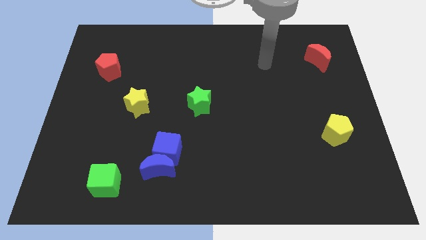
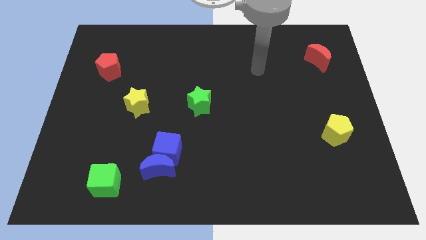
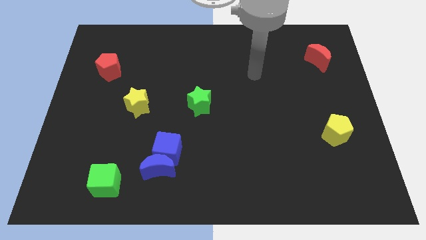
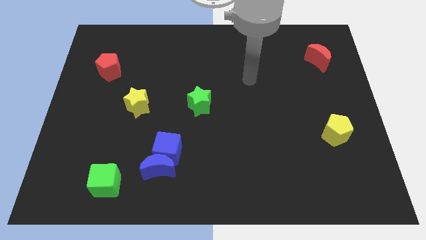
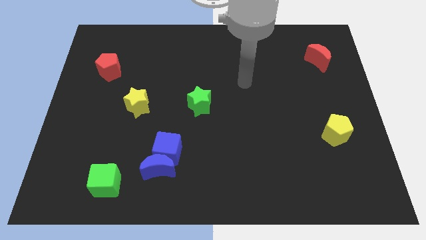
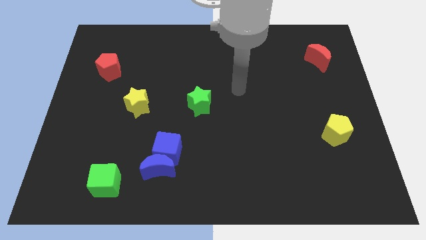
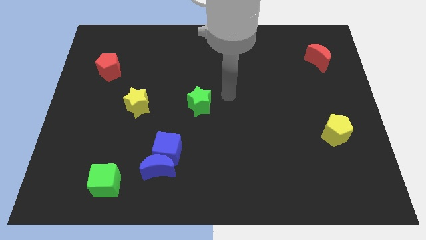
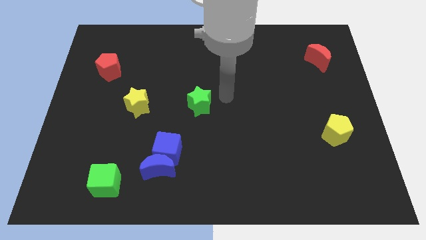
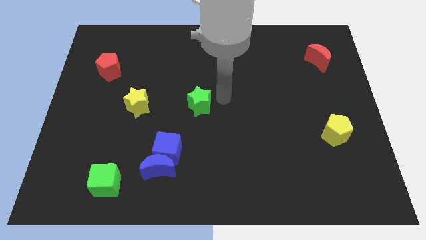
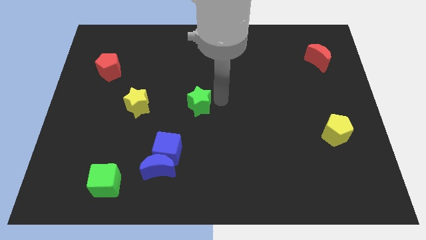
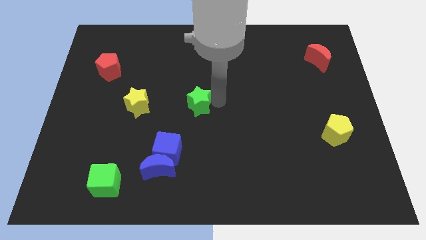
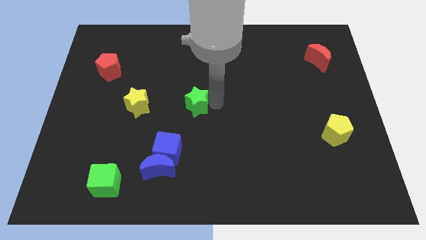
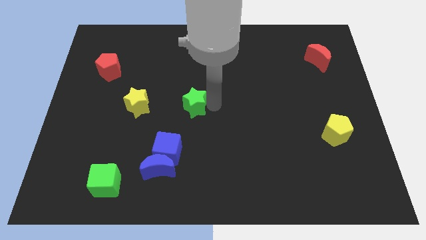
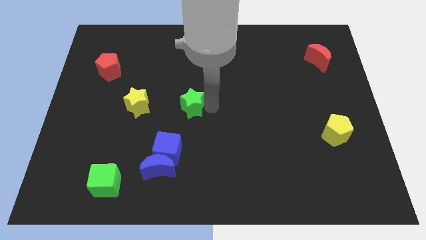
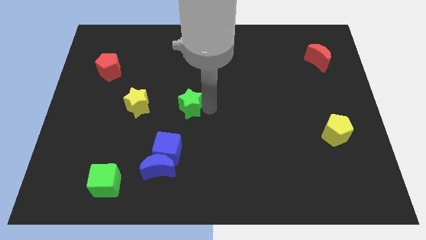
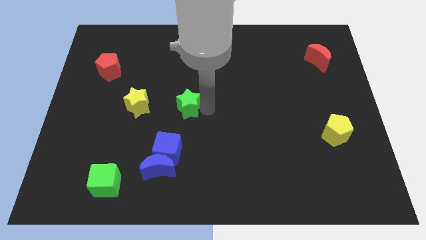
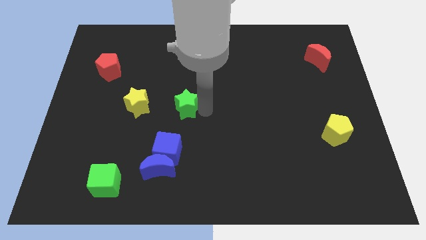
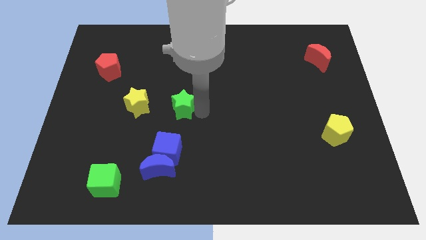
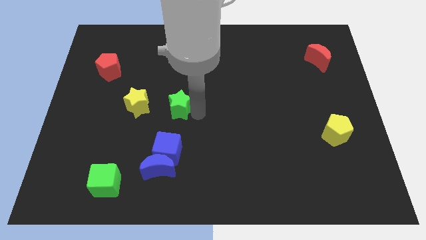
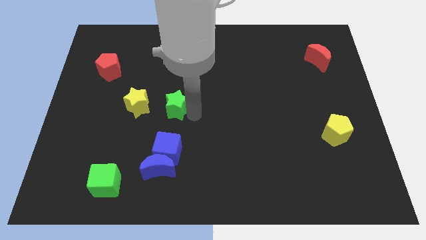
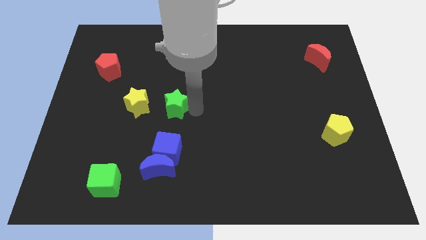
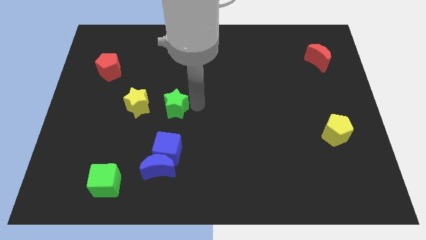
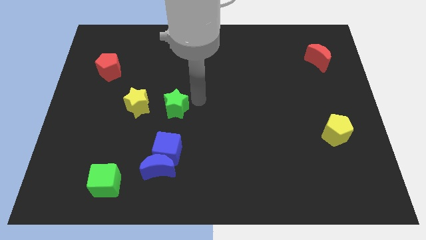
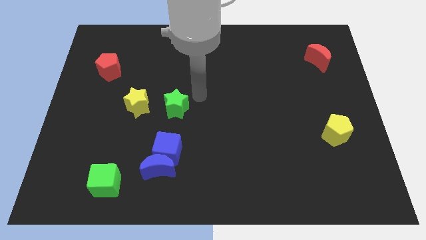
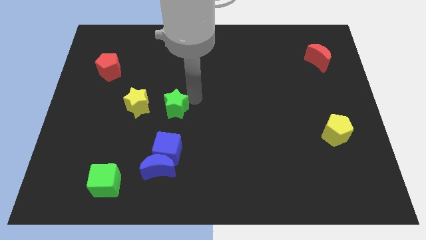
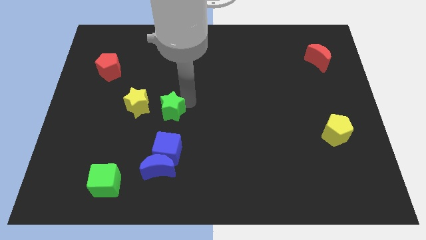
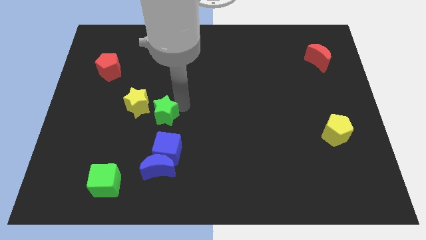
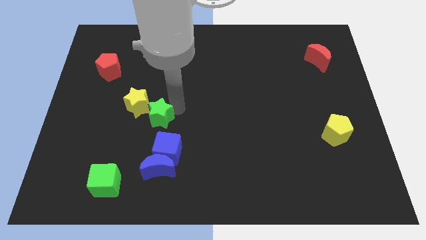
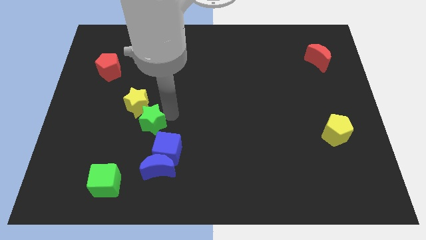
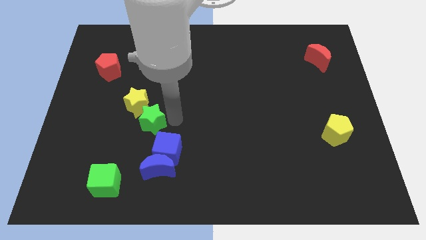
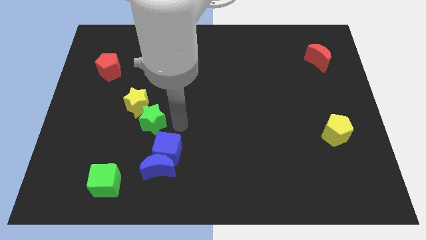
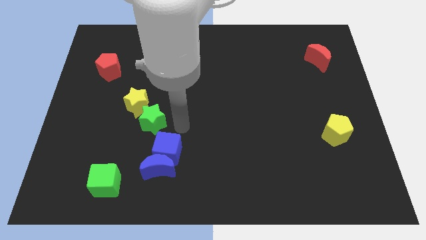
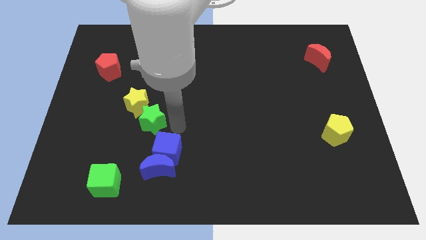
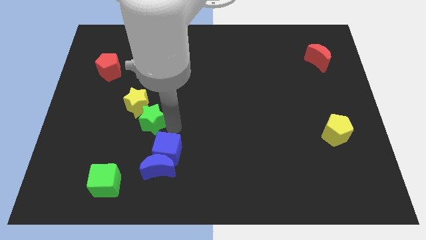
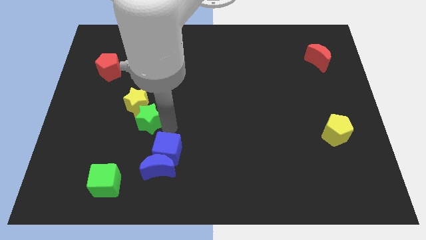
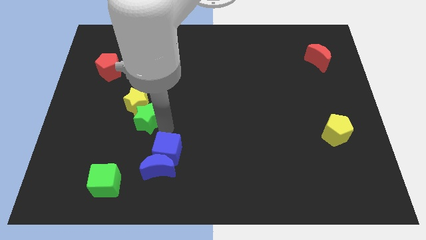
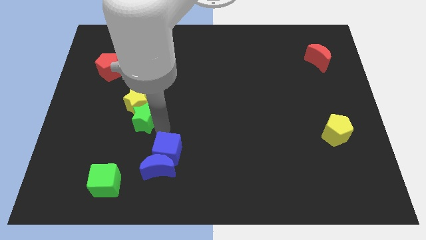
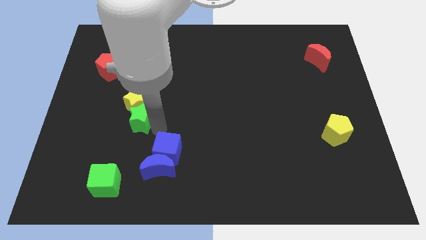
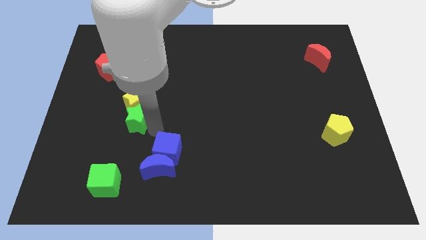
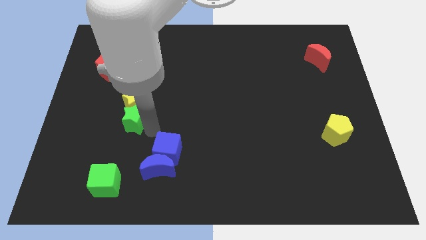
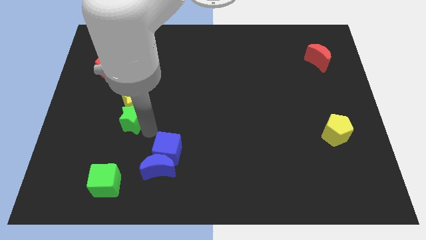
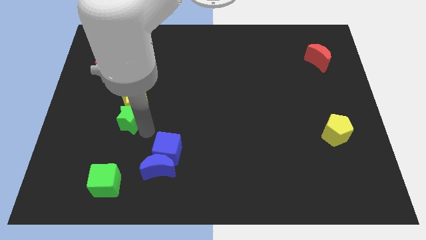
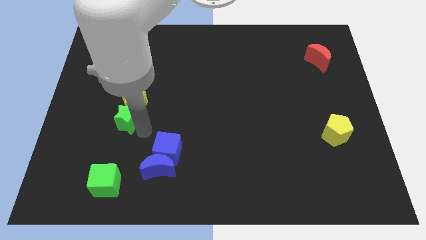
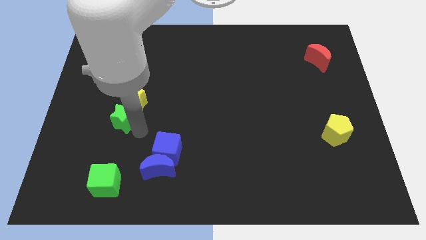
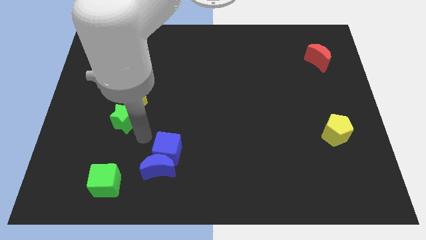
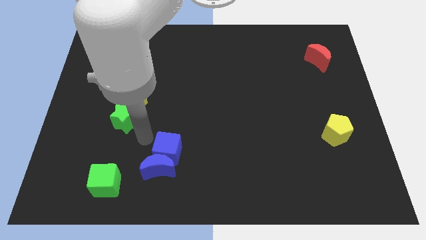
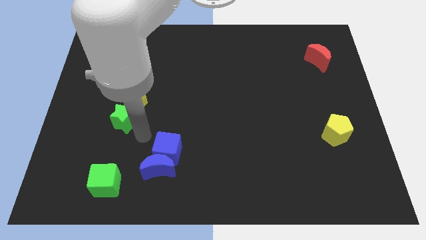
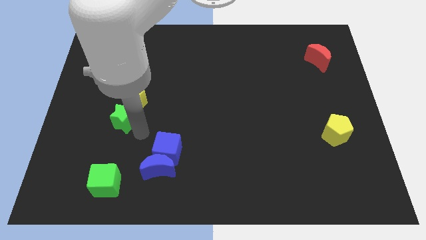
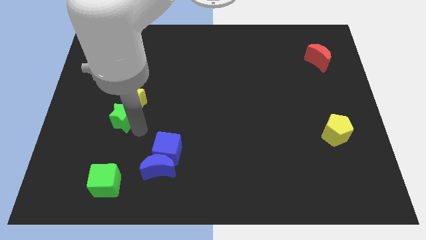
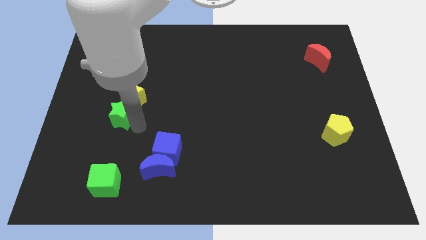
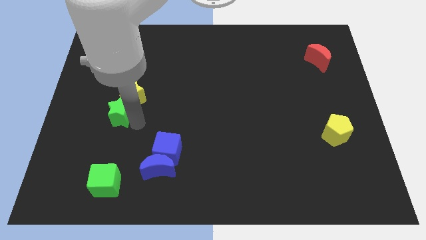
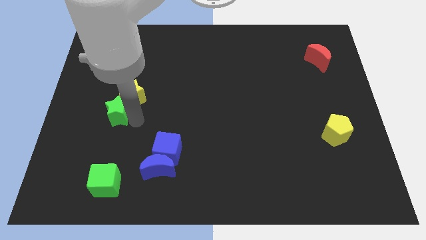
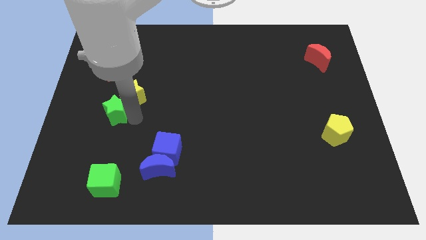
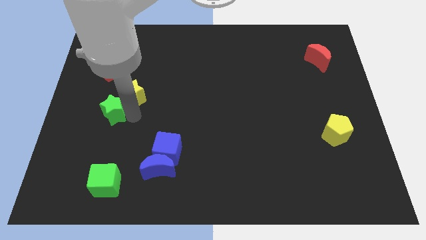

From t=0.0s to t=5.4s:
push the green star to the bottom of the red pentagon

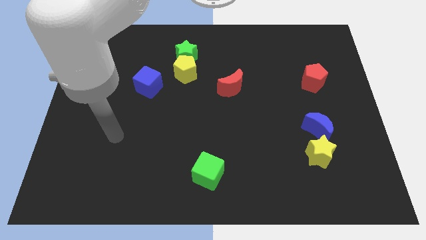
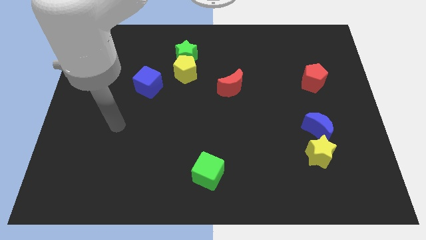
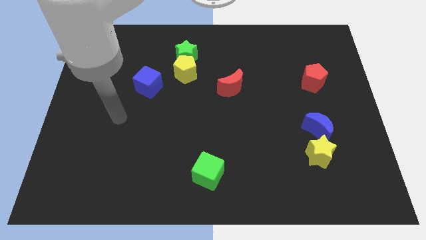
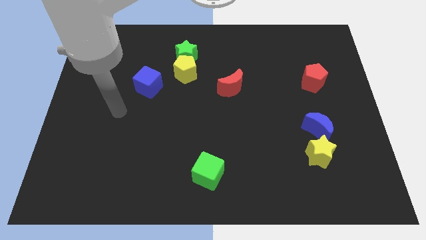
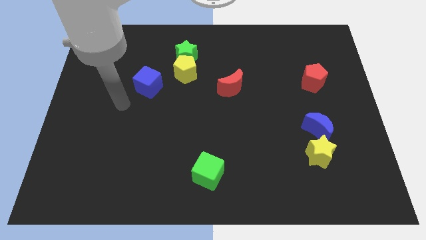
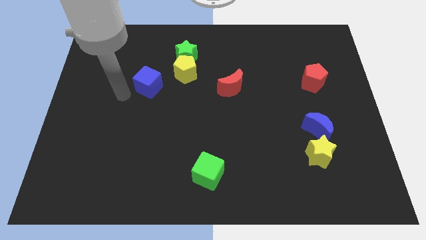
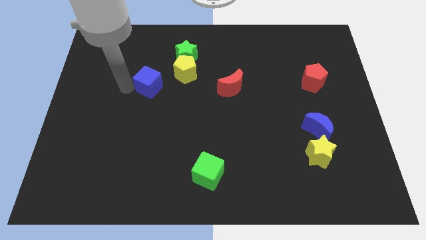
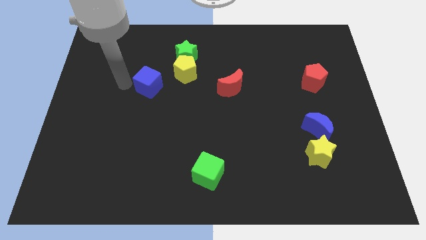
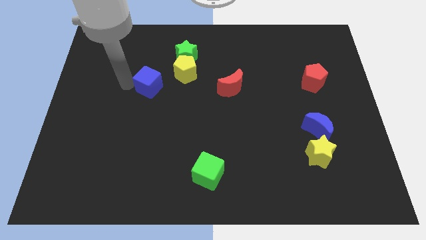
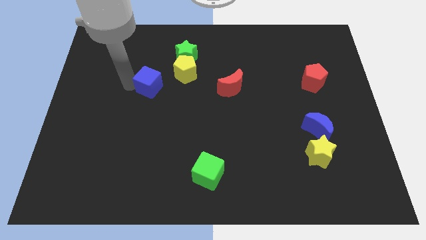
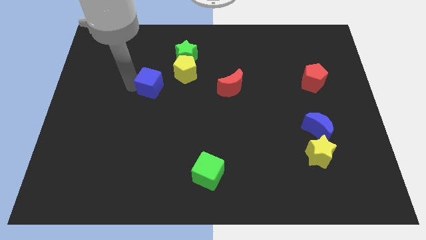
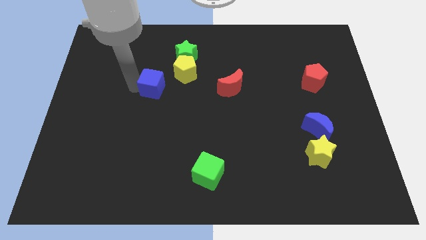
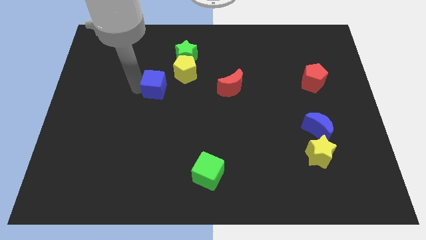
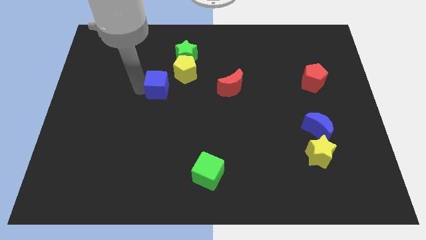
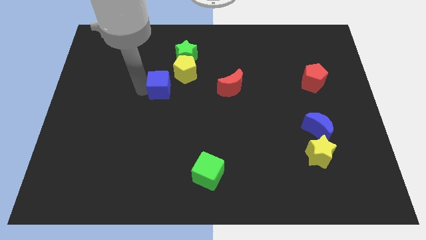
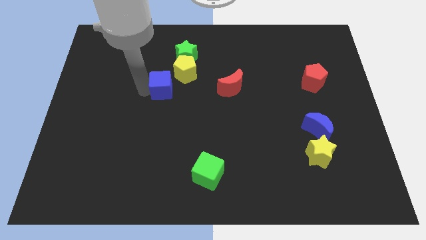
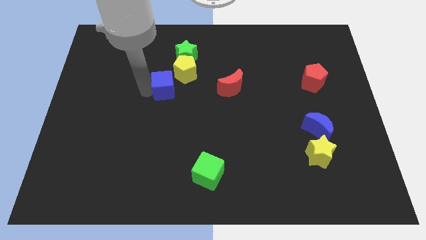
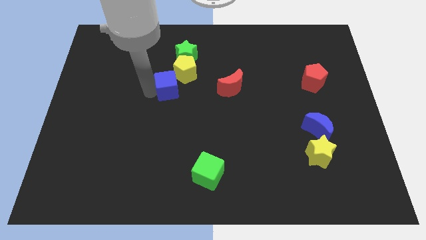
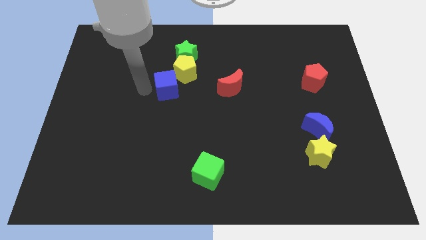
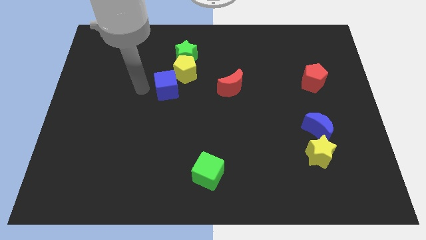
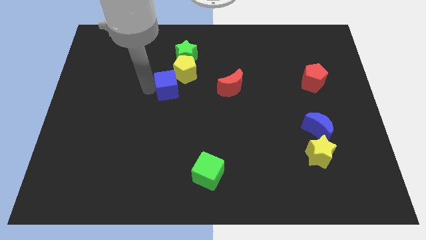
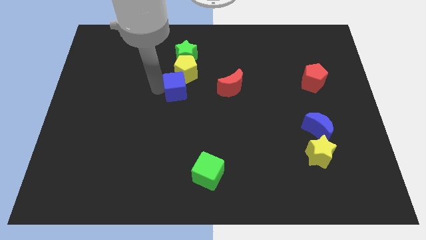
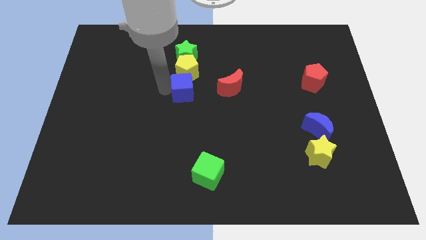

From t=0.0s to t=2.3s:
move the blue cube to the bottom right of the yellow pentagon

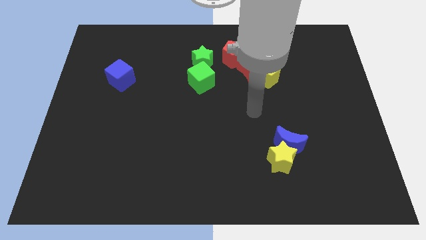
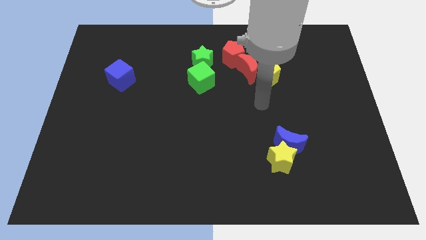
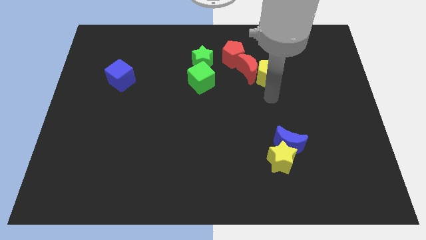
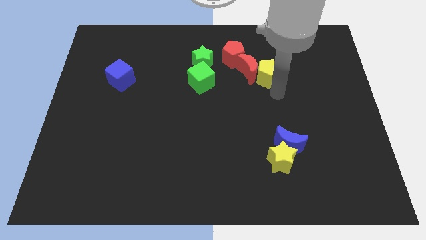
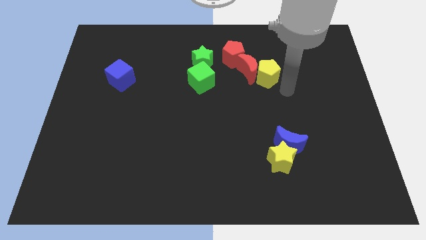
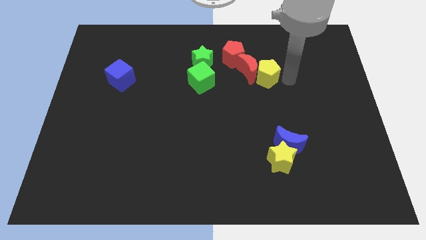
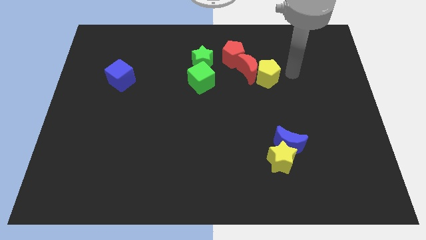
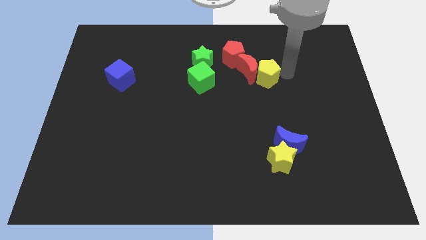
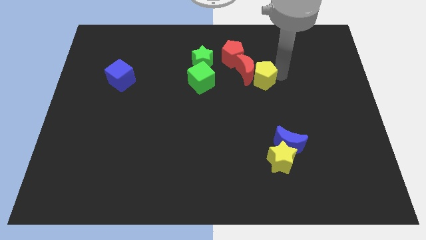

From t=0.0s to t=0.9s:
push the yellow pentagon to the right of the green cube
